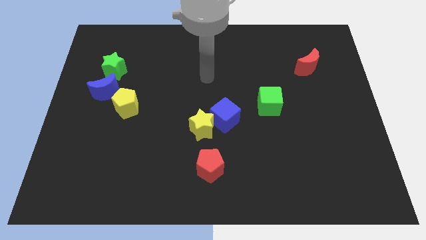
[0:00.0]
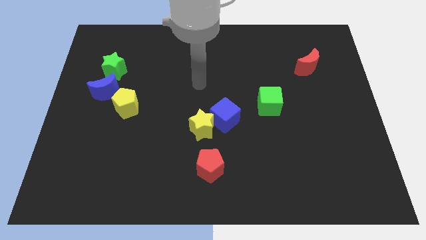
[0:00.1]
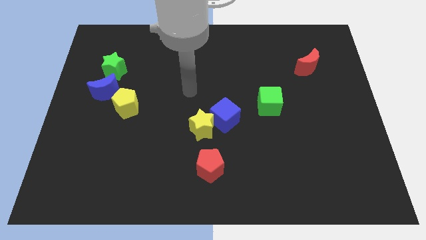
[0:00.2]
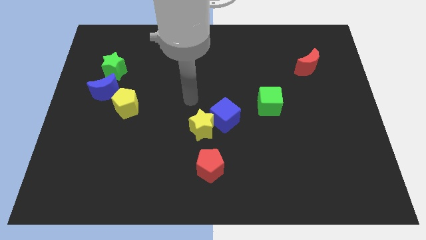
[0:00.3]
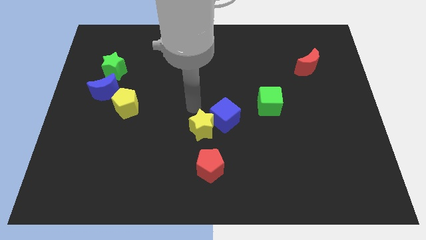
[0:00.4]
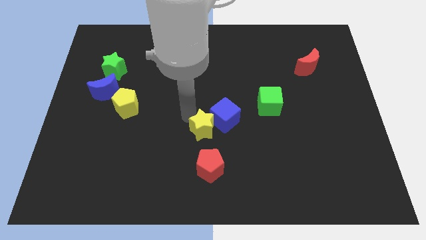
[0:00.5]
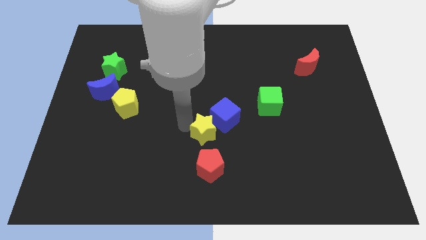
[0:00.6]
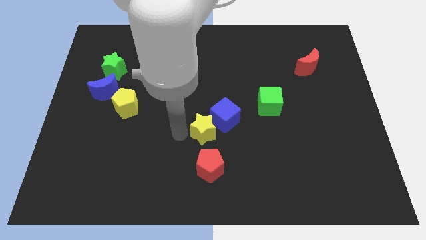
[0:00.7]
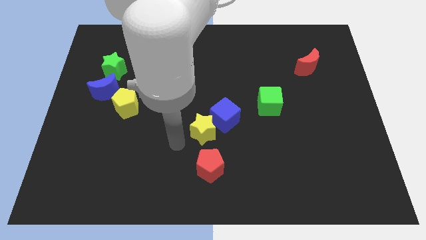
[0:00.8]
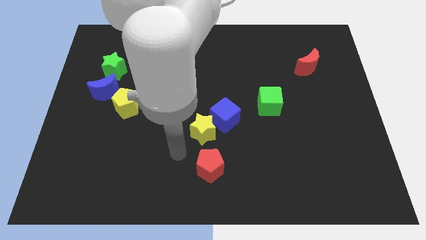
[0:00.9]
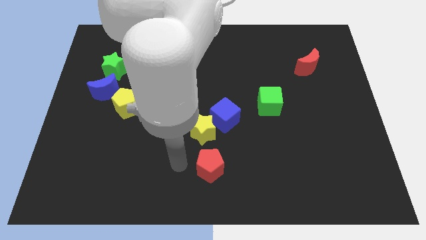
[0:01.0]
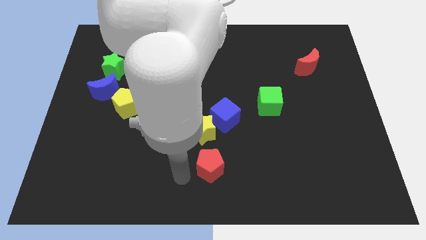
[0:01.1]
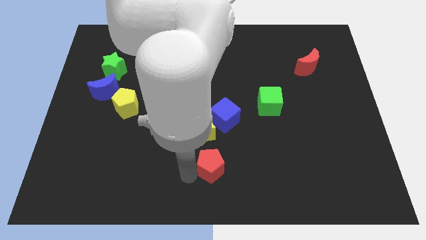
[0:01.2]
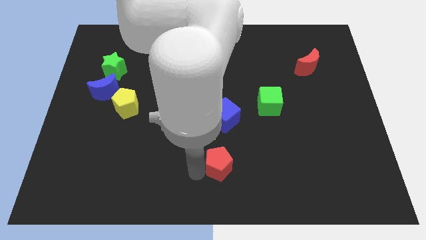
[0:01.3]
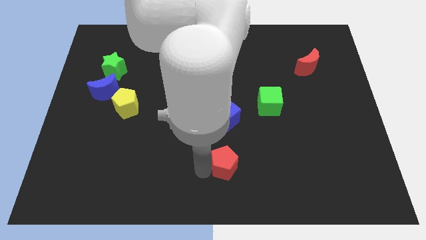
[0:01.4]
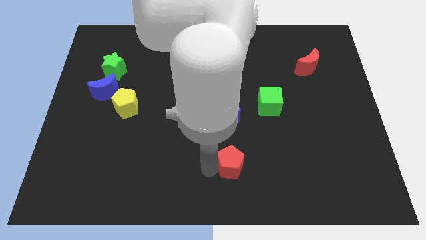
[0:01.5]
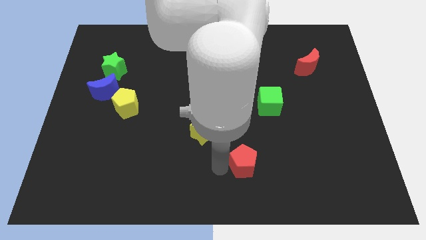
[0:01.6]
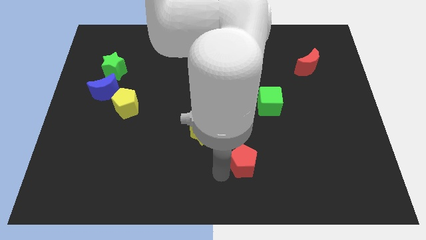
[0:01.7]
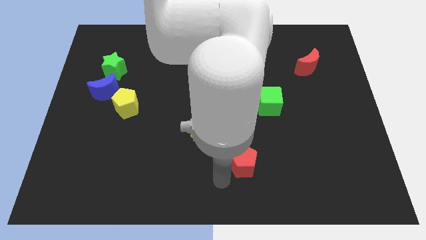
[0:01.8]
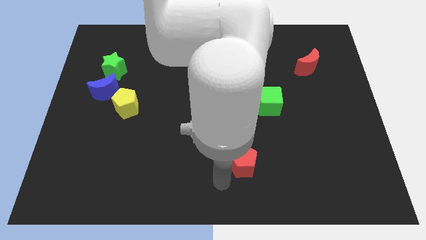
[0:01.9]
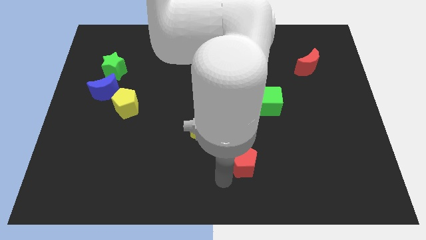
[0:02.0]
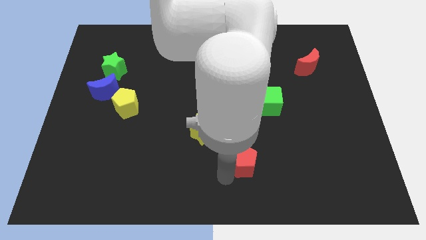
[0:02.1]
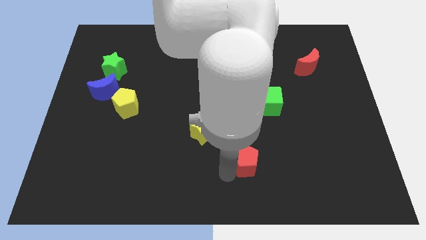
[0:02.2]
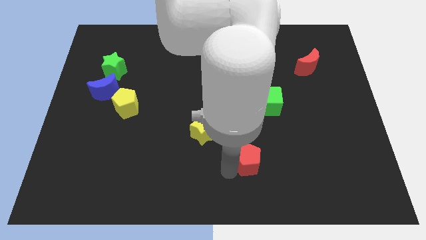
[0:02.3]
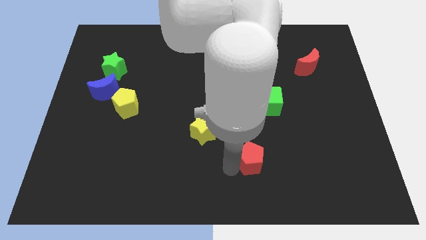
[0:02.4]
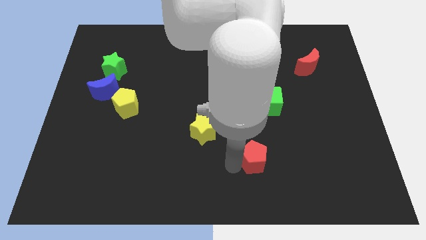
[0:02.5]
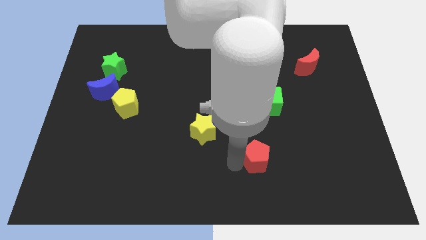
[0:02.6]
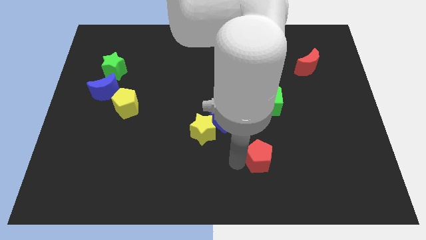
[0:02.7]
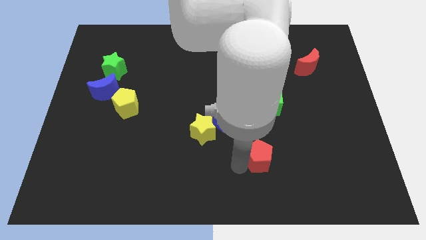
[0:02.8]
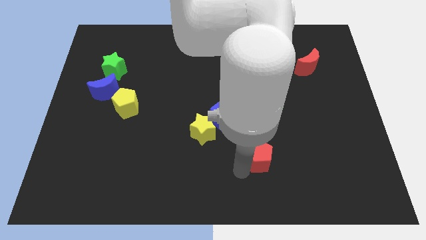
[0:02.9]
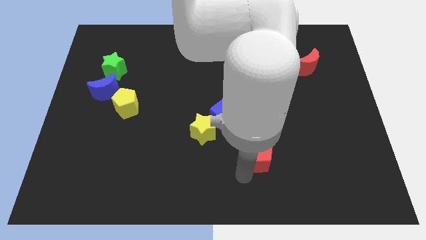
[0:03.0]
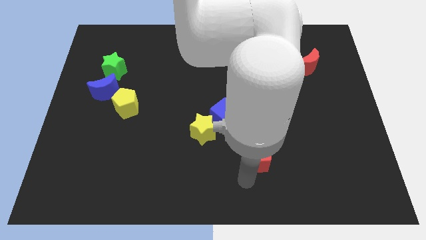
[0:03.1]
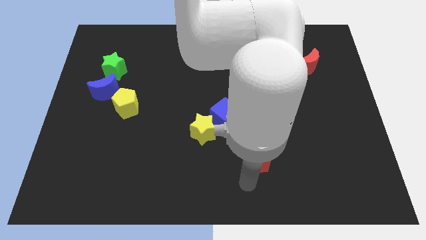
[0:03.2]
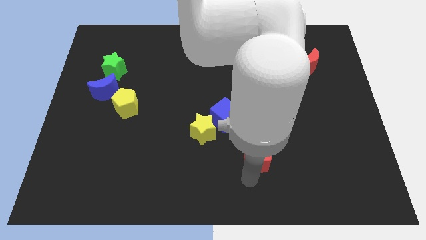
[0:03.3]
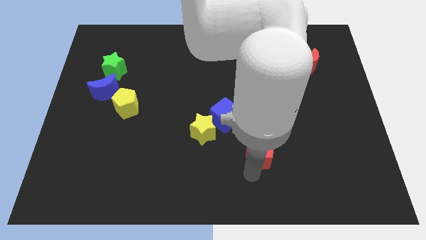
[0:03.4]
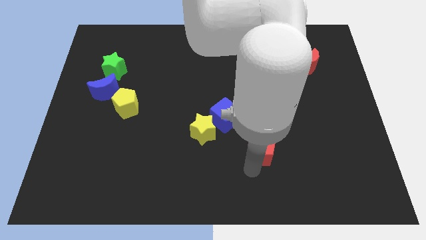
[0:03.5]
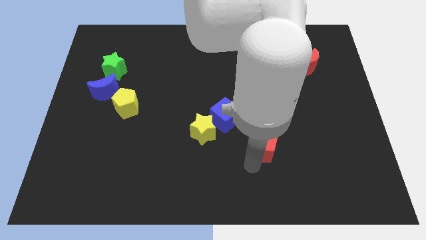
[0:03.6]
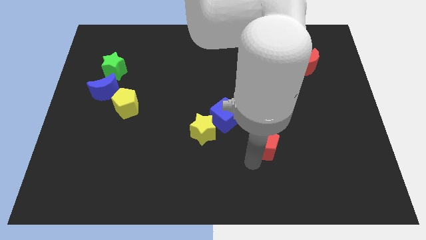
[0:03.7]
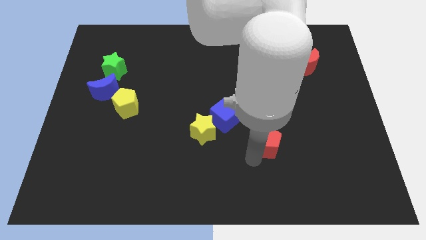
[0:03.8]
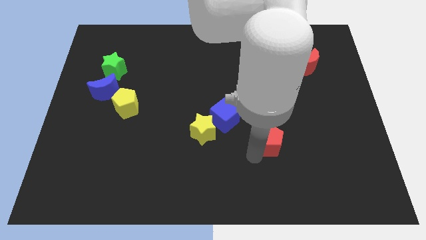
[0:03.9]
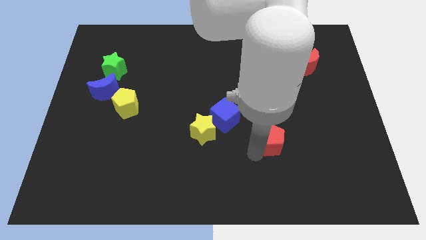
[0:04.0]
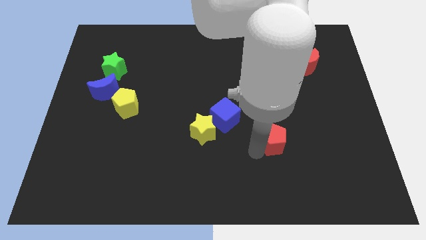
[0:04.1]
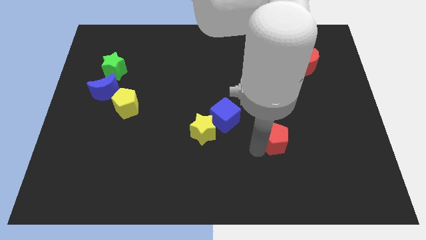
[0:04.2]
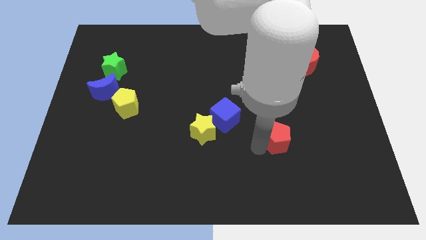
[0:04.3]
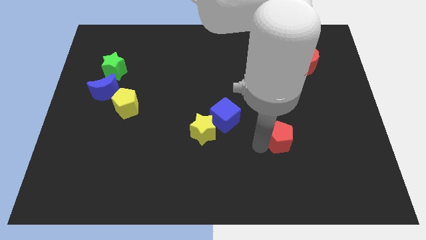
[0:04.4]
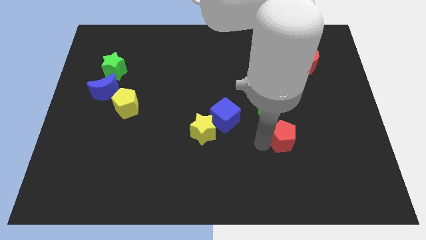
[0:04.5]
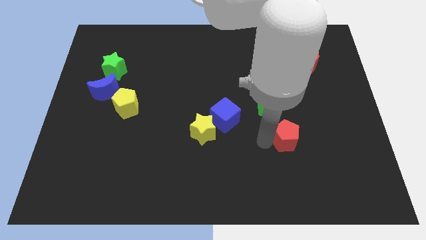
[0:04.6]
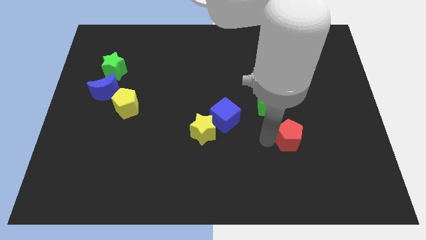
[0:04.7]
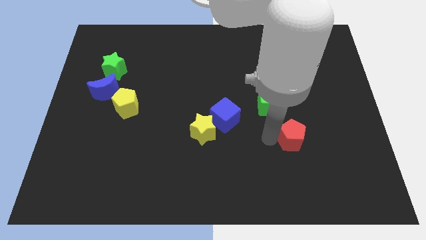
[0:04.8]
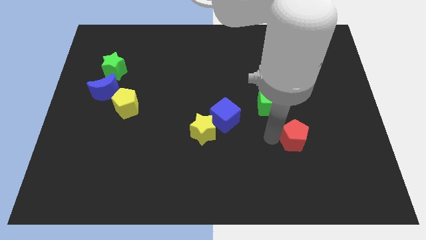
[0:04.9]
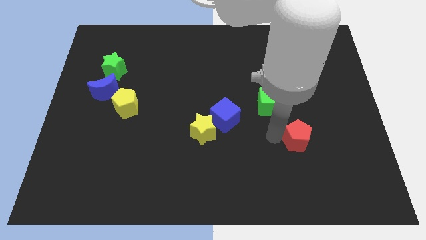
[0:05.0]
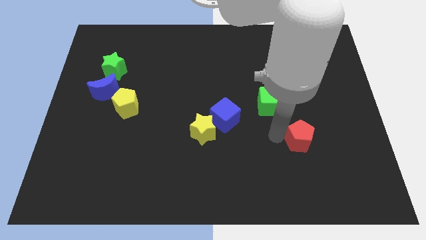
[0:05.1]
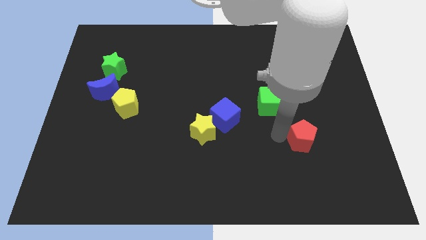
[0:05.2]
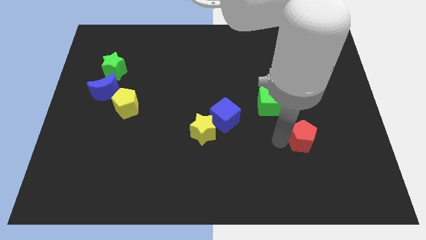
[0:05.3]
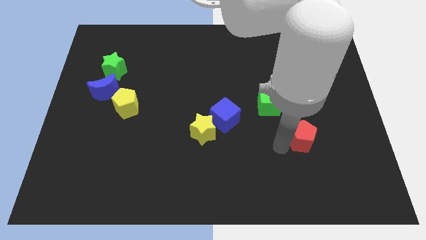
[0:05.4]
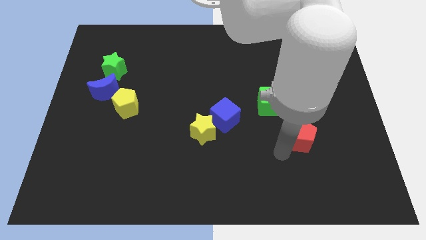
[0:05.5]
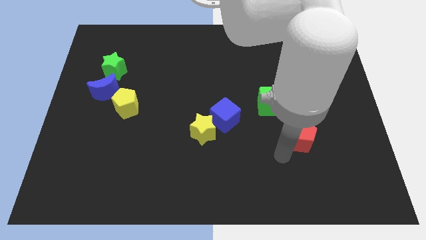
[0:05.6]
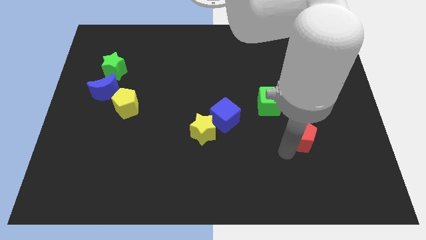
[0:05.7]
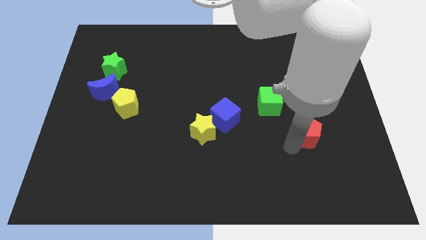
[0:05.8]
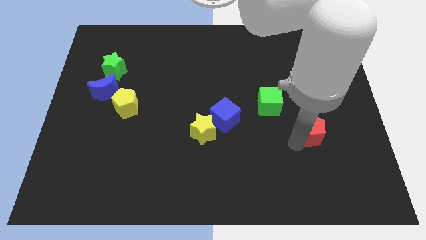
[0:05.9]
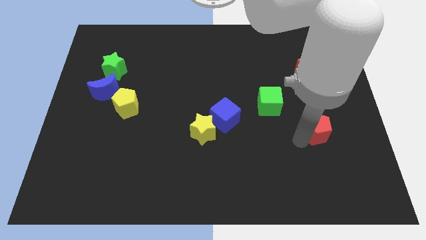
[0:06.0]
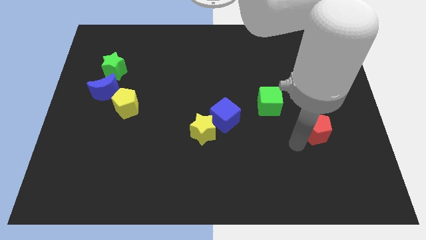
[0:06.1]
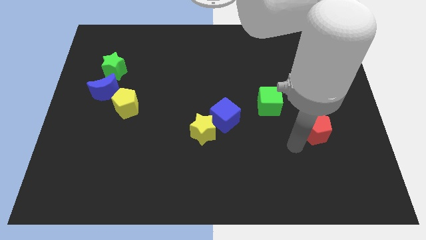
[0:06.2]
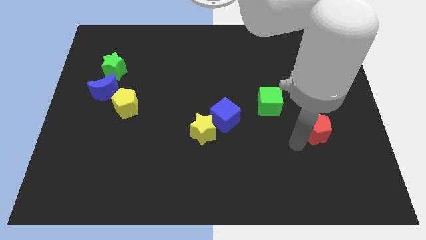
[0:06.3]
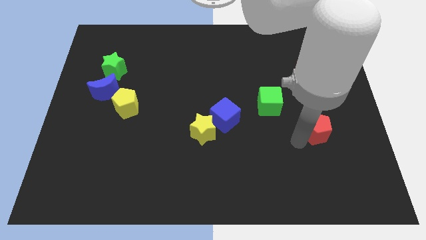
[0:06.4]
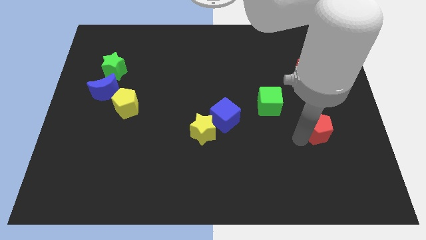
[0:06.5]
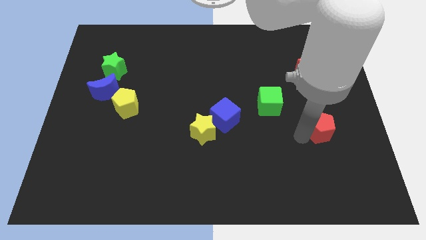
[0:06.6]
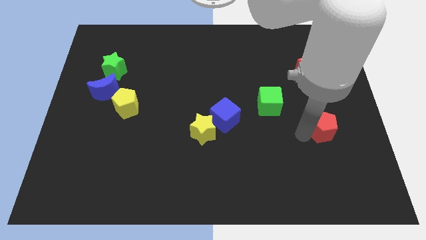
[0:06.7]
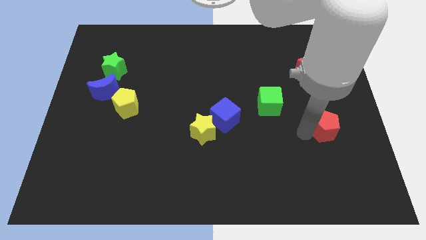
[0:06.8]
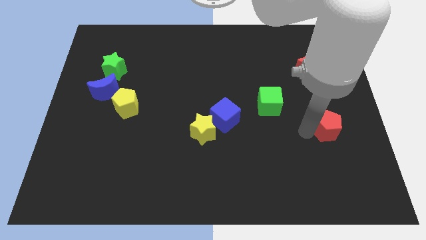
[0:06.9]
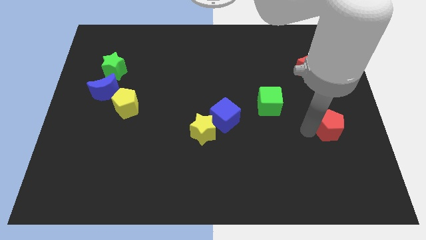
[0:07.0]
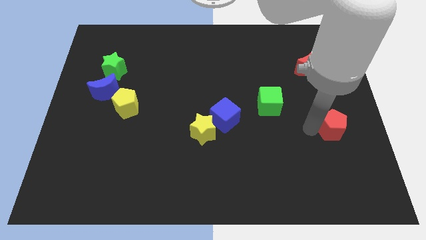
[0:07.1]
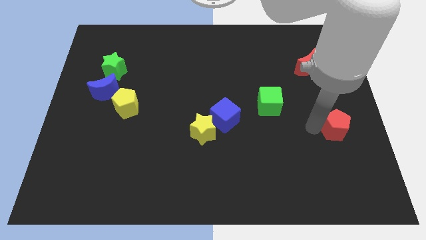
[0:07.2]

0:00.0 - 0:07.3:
move the red pentagon to the center right
